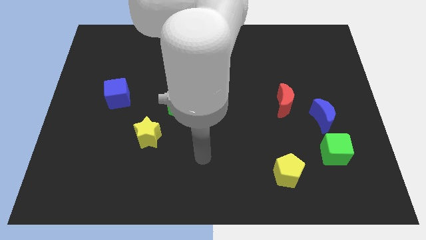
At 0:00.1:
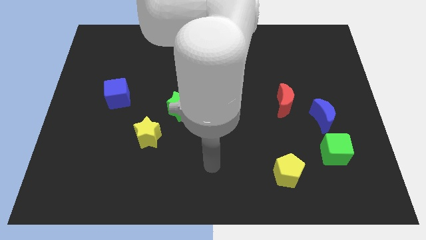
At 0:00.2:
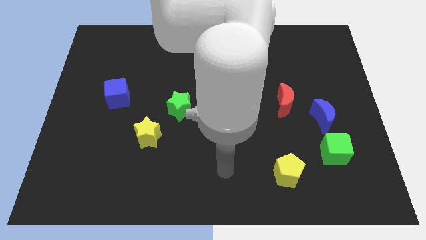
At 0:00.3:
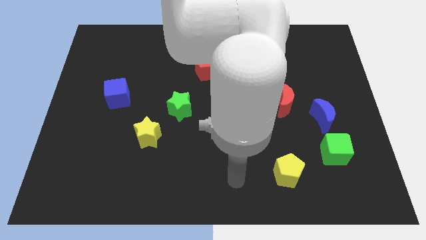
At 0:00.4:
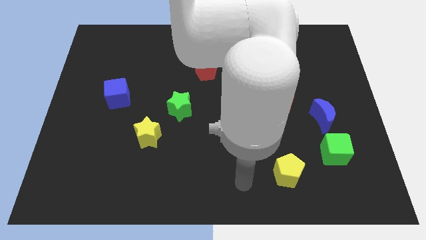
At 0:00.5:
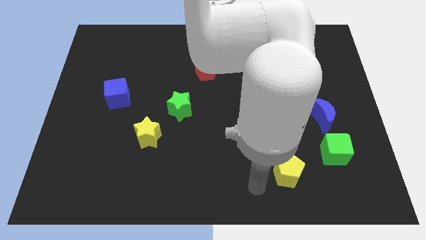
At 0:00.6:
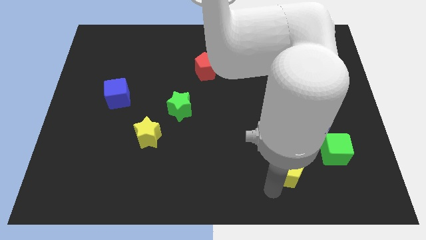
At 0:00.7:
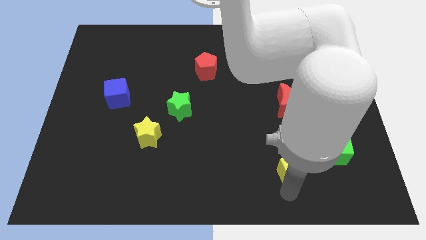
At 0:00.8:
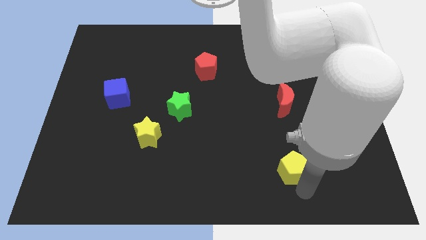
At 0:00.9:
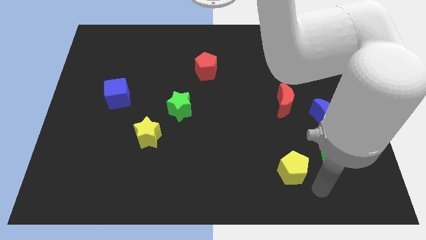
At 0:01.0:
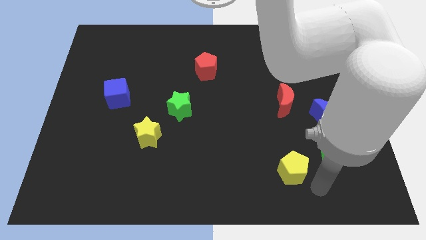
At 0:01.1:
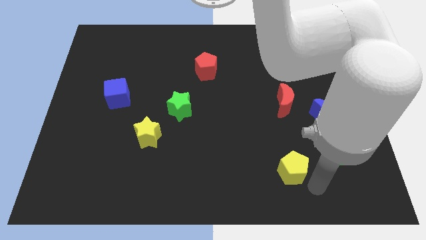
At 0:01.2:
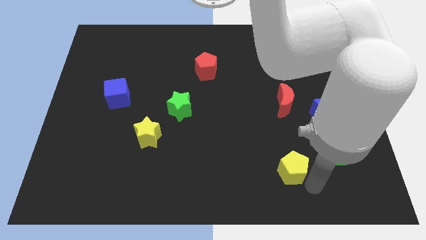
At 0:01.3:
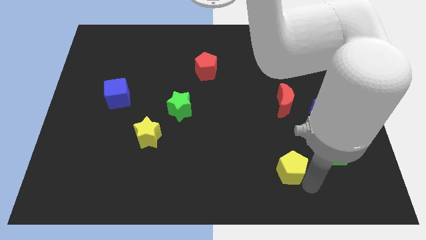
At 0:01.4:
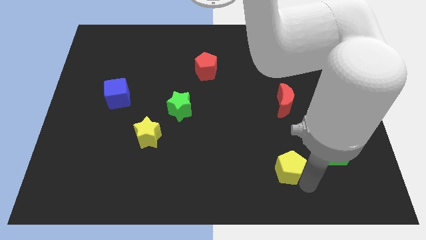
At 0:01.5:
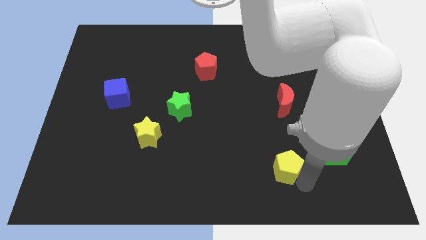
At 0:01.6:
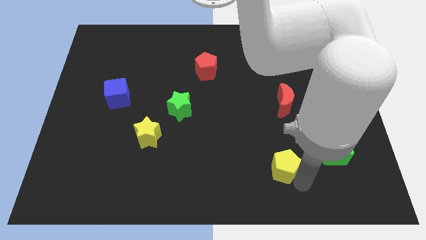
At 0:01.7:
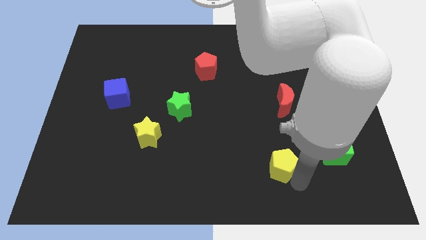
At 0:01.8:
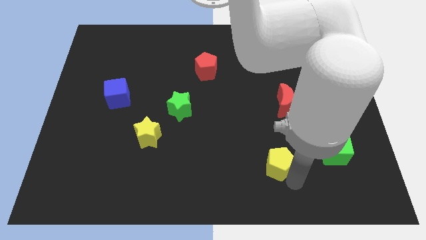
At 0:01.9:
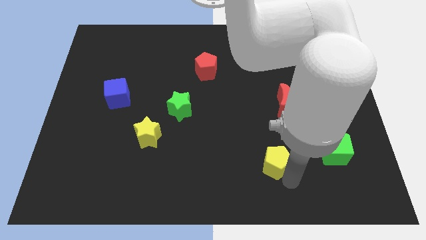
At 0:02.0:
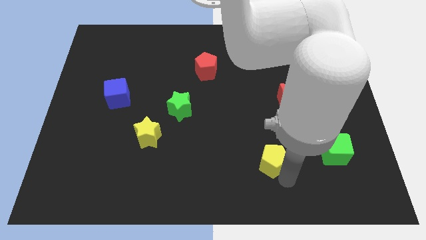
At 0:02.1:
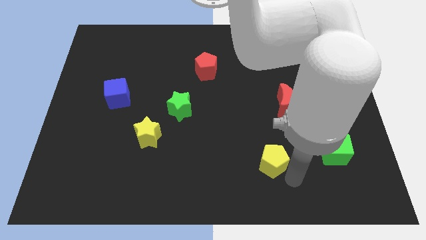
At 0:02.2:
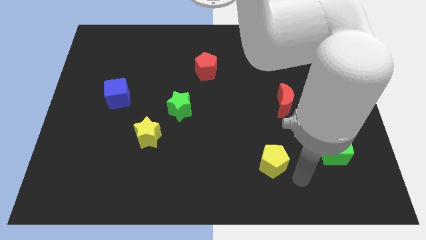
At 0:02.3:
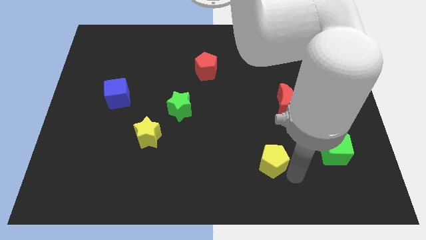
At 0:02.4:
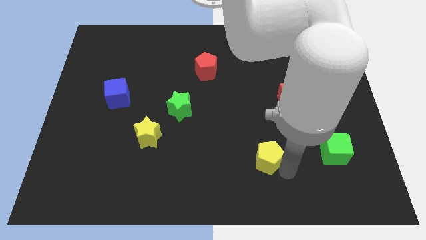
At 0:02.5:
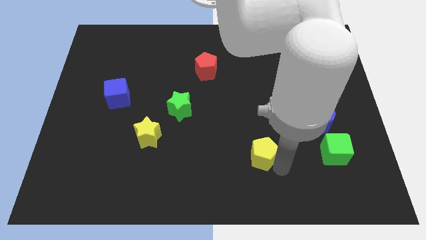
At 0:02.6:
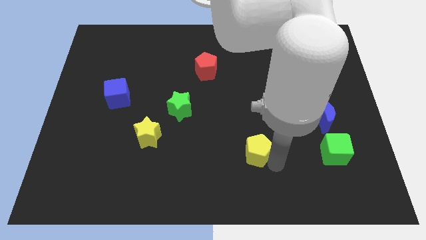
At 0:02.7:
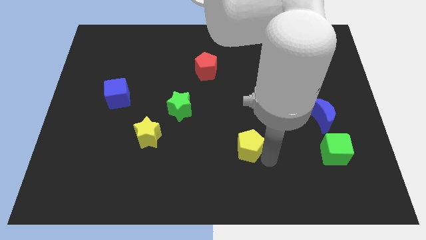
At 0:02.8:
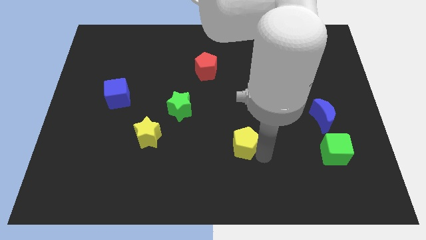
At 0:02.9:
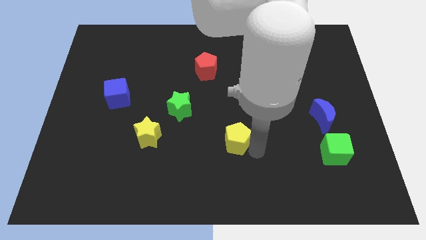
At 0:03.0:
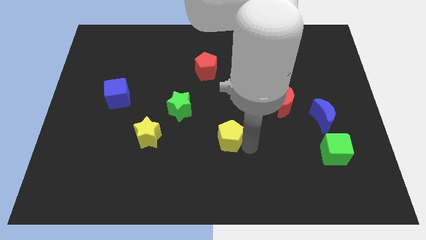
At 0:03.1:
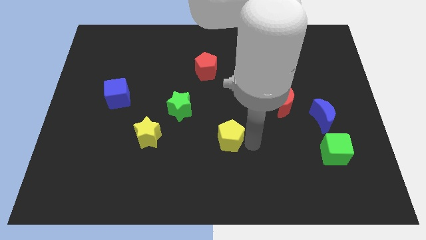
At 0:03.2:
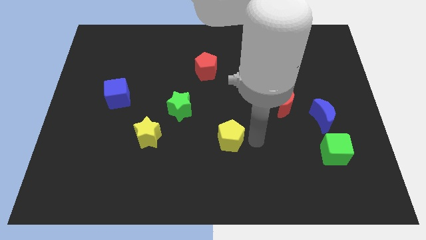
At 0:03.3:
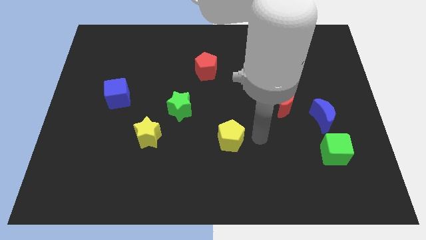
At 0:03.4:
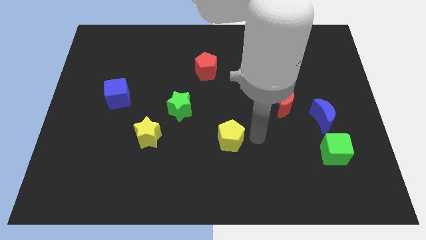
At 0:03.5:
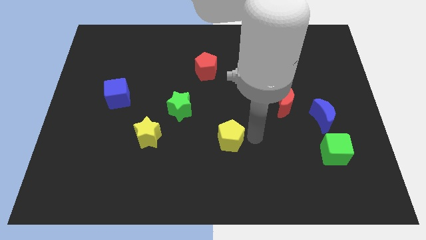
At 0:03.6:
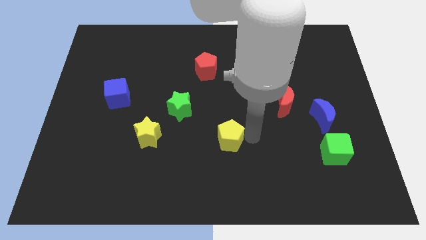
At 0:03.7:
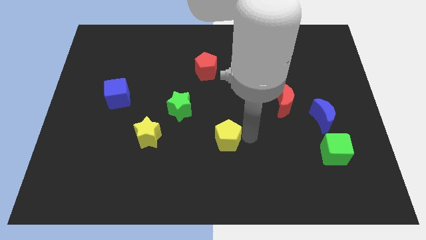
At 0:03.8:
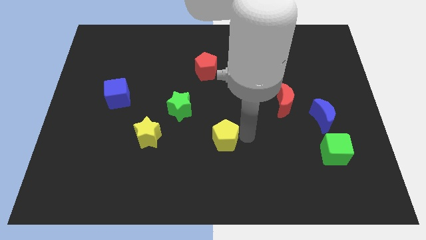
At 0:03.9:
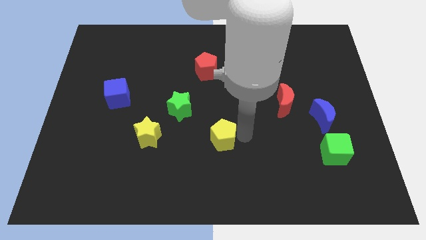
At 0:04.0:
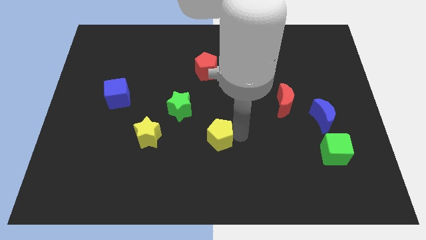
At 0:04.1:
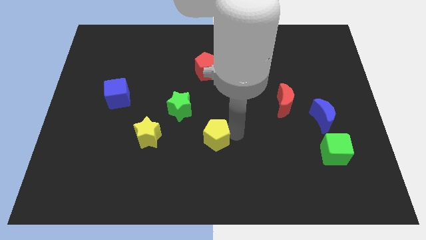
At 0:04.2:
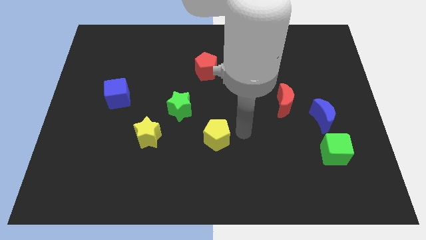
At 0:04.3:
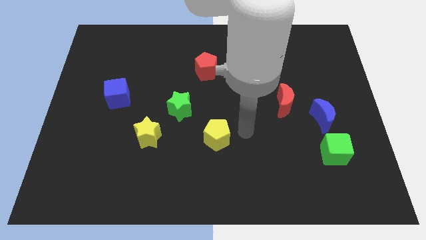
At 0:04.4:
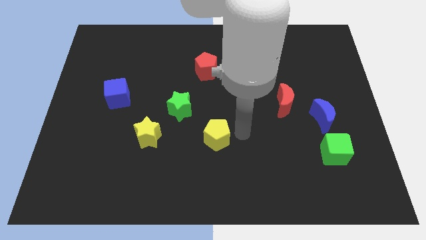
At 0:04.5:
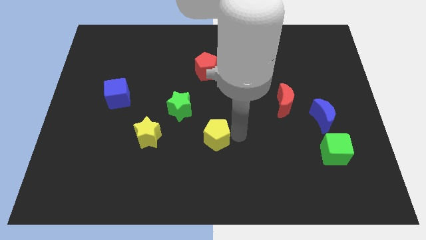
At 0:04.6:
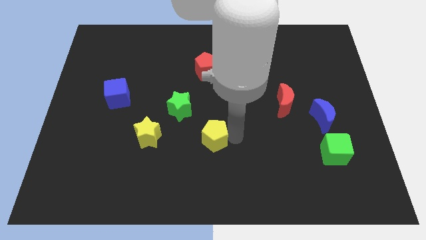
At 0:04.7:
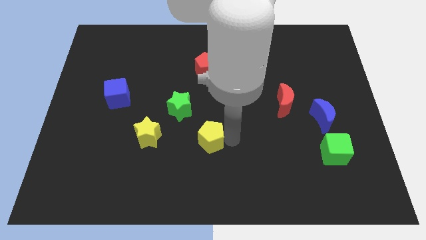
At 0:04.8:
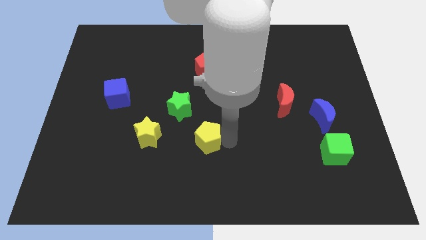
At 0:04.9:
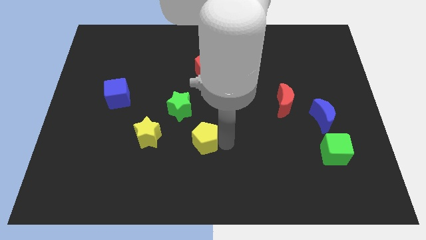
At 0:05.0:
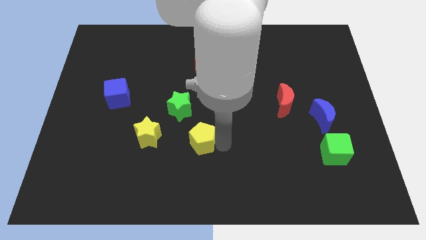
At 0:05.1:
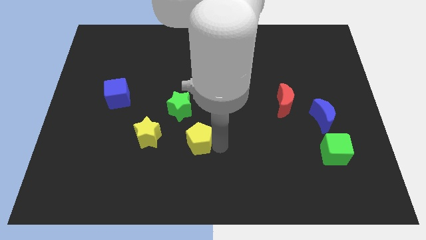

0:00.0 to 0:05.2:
put the yellow pentagon to the bottom of the green star

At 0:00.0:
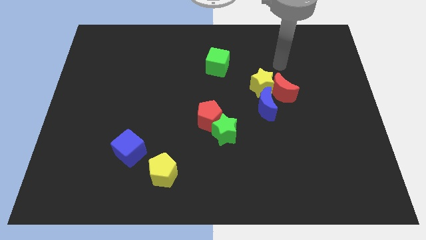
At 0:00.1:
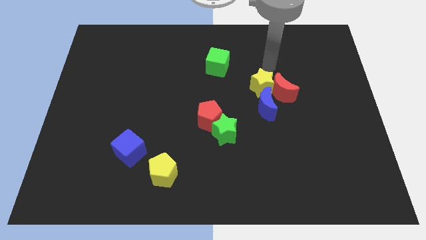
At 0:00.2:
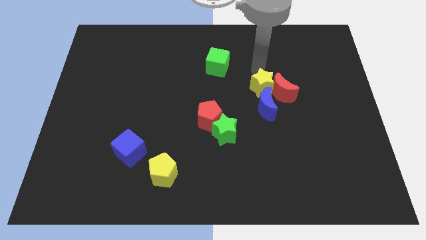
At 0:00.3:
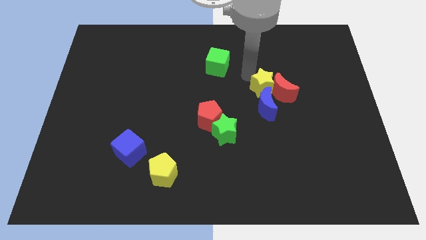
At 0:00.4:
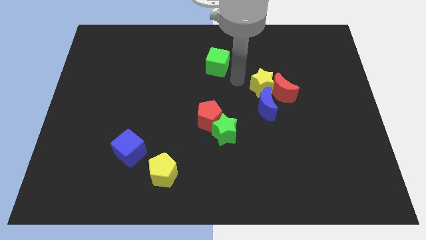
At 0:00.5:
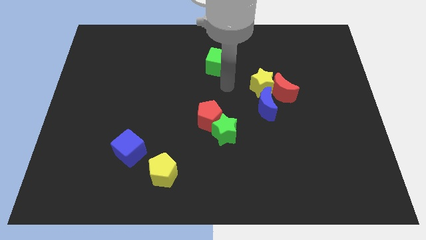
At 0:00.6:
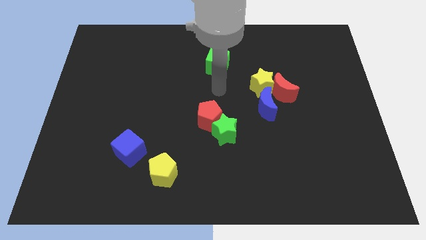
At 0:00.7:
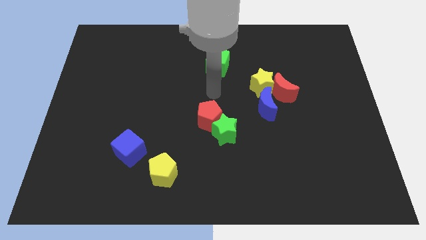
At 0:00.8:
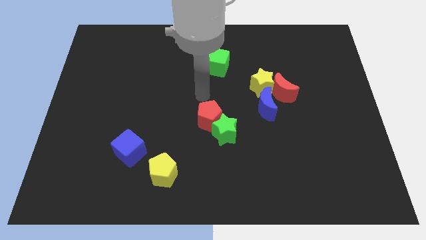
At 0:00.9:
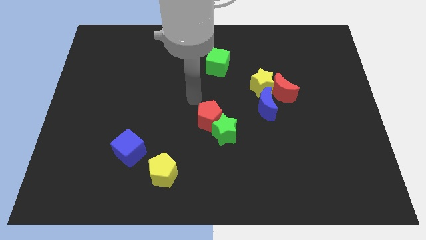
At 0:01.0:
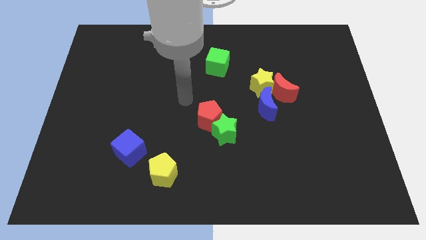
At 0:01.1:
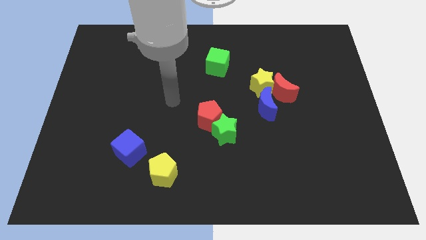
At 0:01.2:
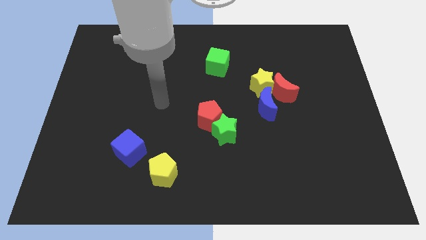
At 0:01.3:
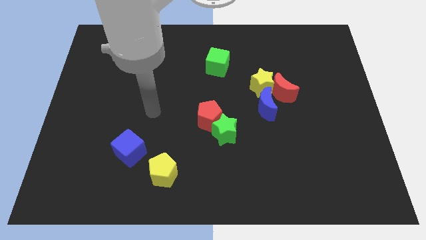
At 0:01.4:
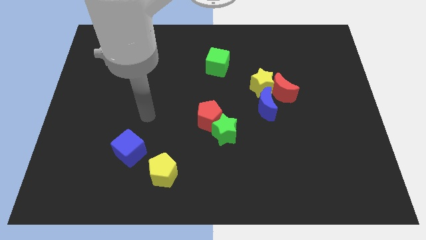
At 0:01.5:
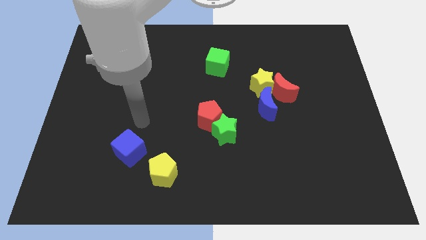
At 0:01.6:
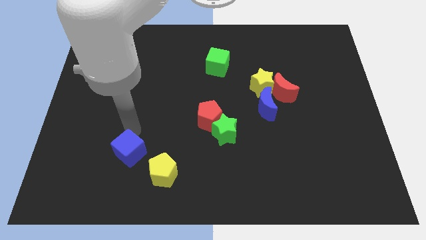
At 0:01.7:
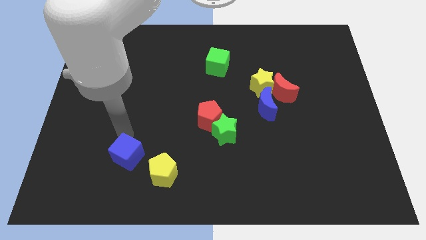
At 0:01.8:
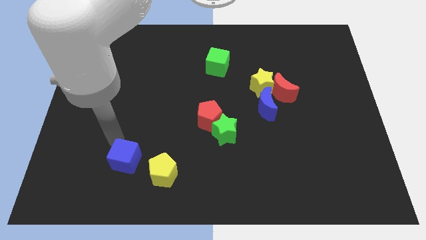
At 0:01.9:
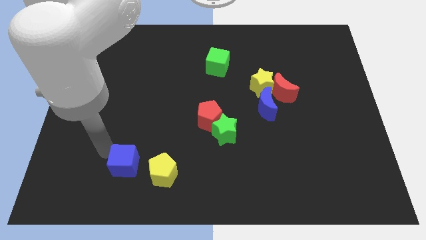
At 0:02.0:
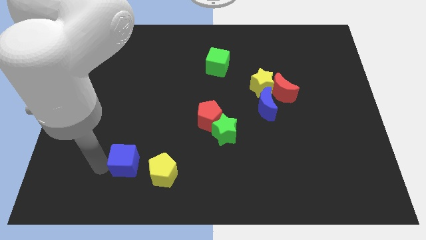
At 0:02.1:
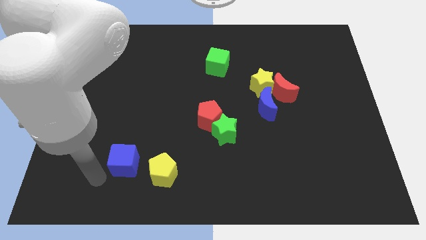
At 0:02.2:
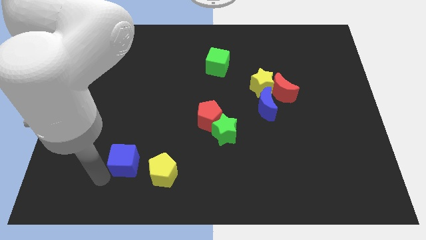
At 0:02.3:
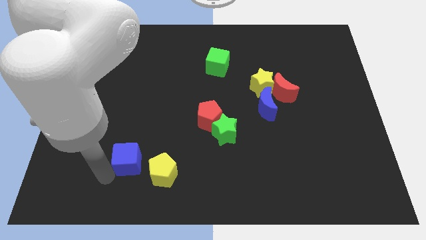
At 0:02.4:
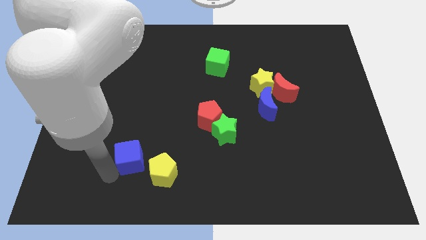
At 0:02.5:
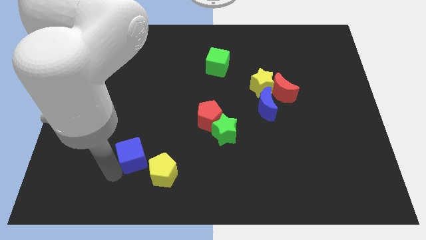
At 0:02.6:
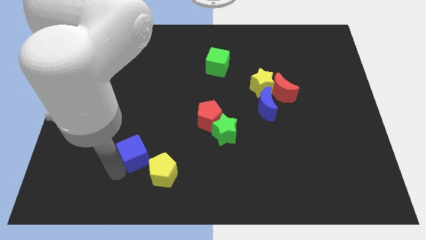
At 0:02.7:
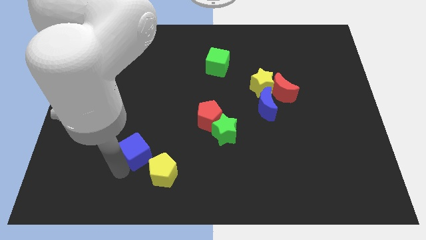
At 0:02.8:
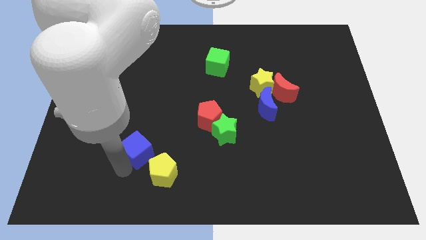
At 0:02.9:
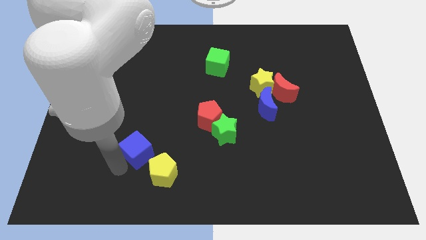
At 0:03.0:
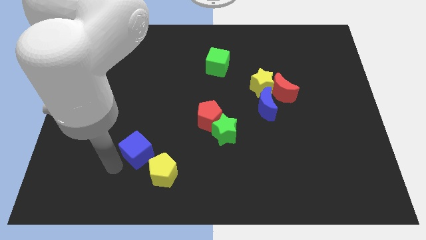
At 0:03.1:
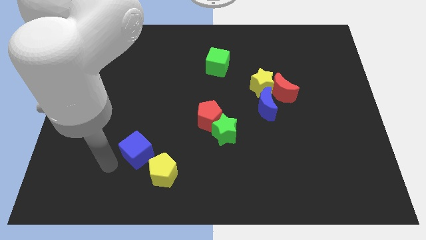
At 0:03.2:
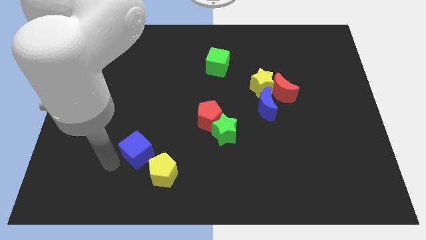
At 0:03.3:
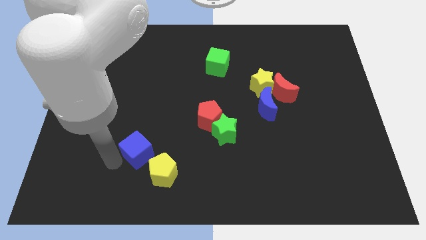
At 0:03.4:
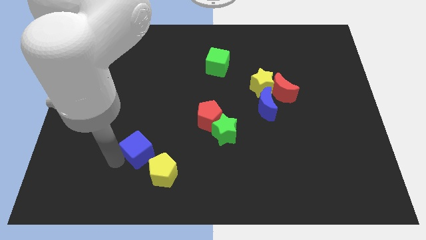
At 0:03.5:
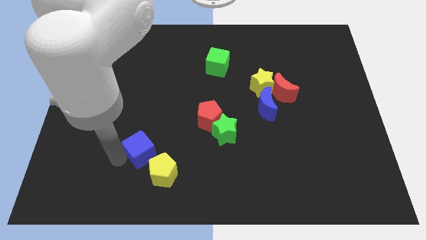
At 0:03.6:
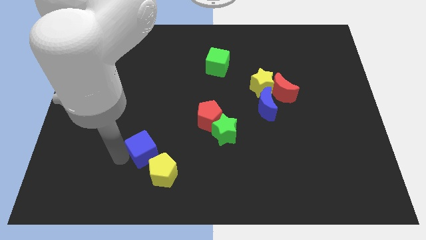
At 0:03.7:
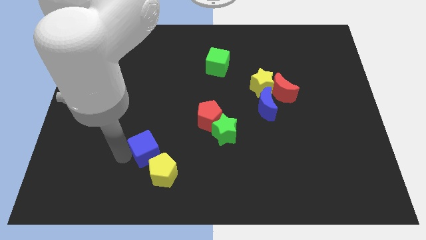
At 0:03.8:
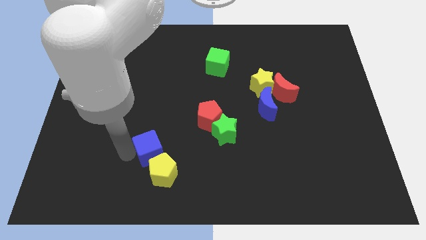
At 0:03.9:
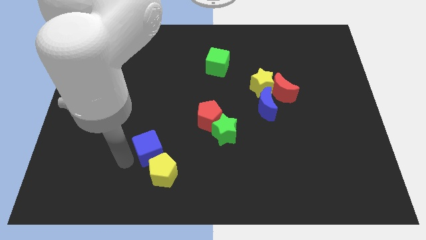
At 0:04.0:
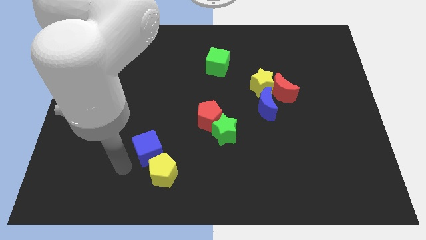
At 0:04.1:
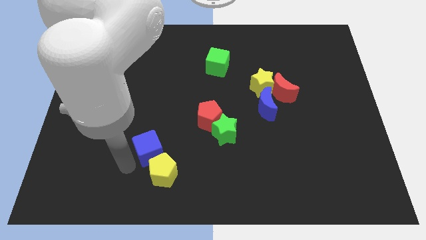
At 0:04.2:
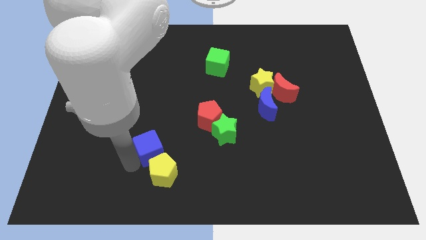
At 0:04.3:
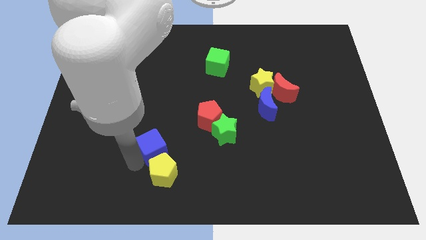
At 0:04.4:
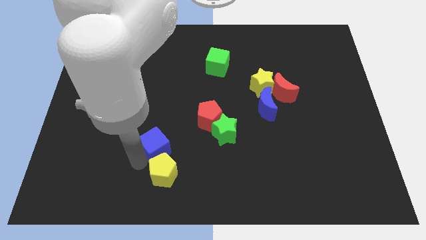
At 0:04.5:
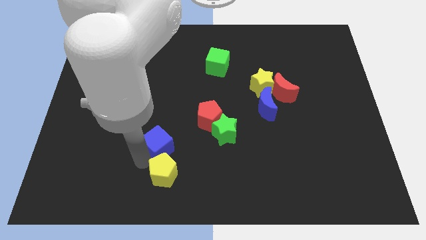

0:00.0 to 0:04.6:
put the blue cube just left of the green star
